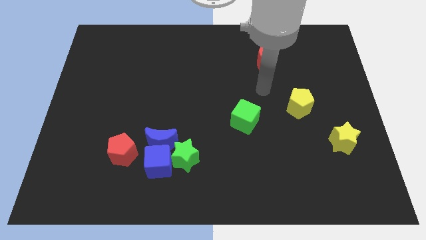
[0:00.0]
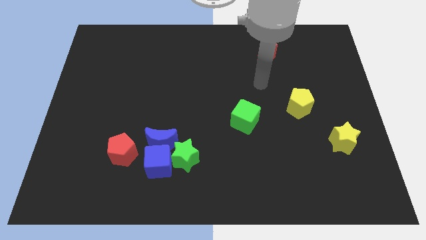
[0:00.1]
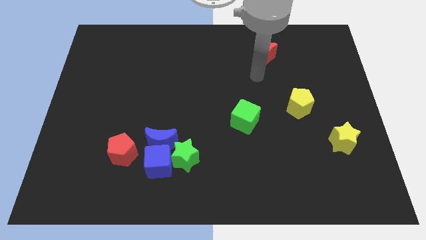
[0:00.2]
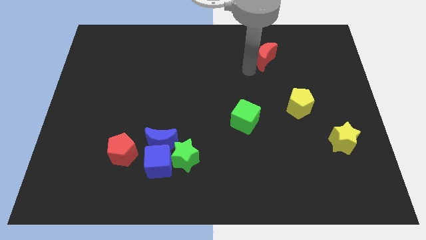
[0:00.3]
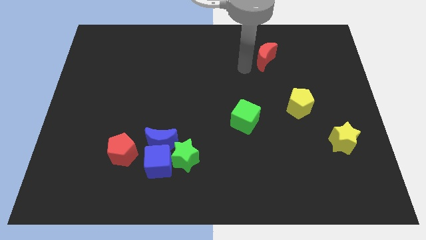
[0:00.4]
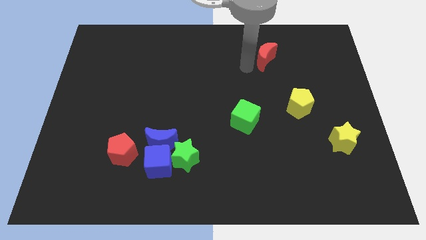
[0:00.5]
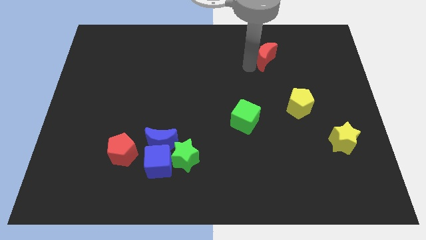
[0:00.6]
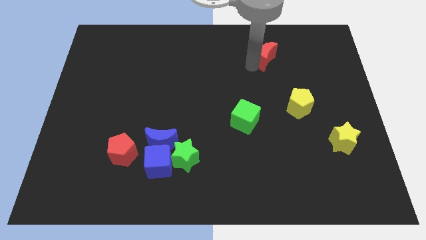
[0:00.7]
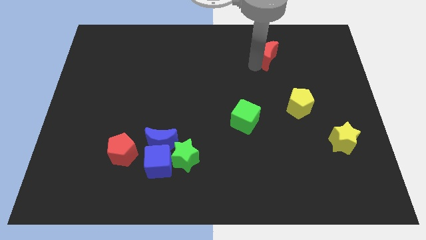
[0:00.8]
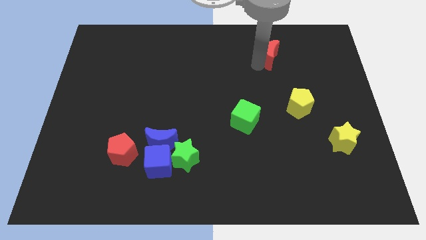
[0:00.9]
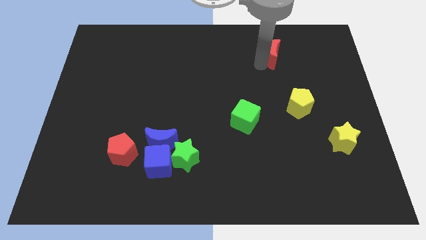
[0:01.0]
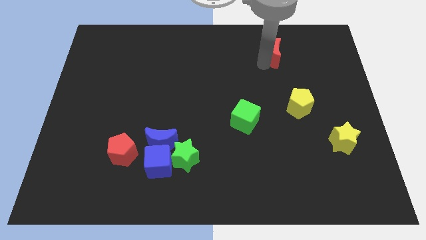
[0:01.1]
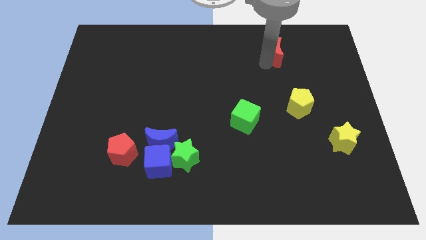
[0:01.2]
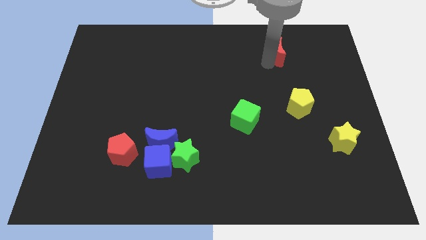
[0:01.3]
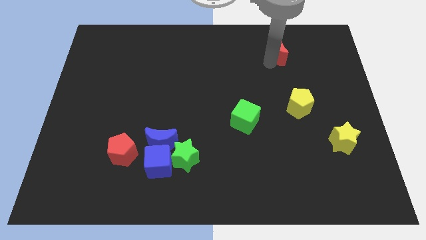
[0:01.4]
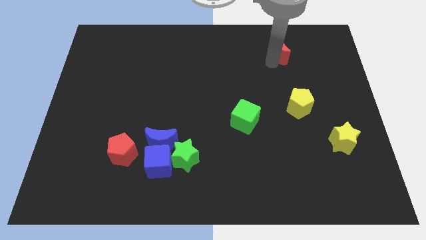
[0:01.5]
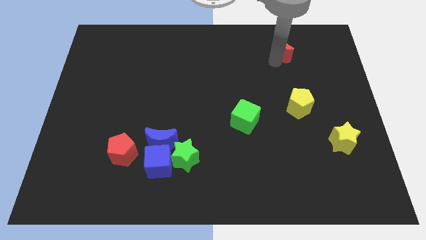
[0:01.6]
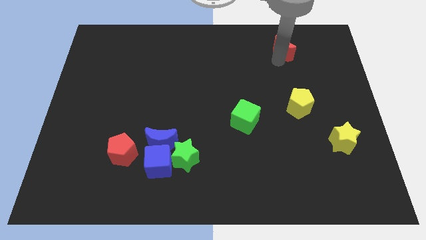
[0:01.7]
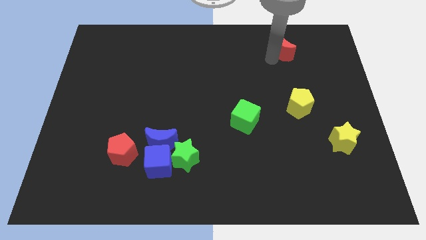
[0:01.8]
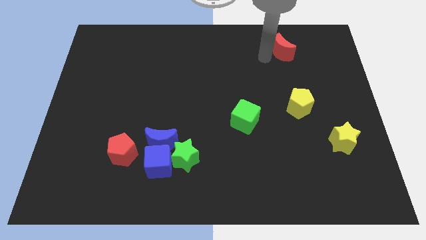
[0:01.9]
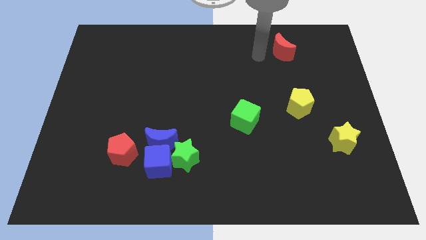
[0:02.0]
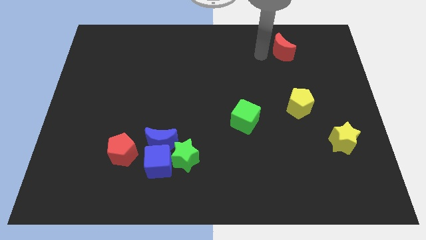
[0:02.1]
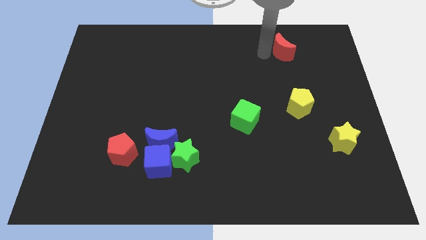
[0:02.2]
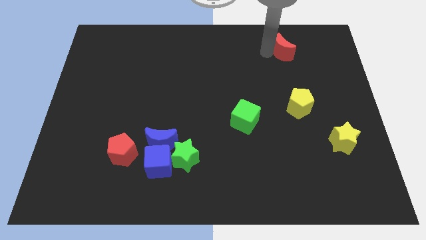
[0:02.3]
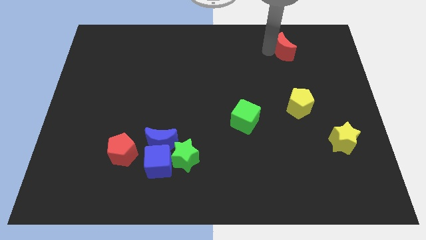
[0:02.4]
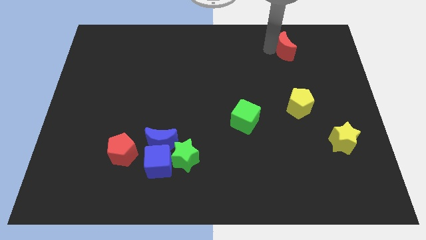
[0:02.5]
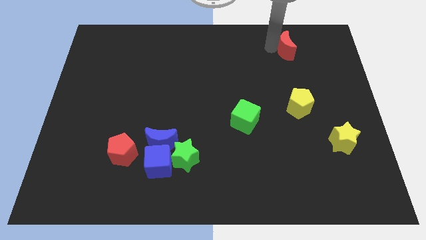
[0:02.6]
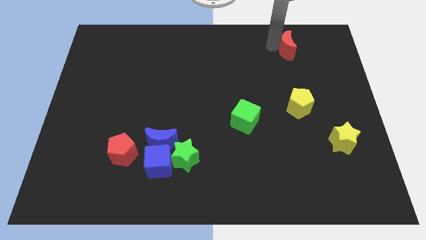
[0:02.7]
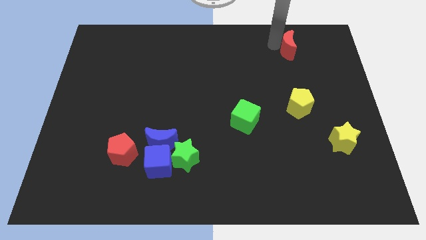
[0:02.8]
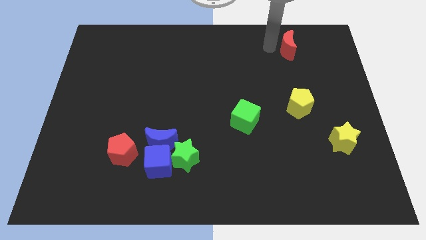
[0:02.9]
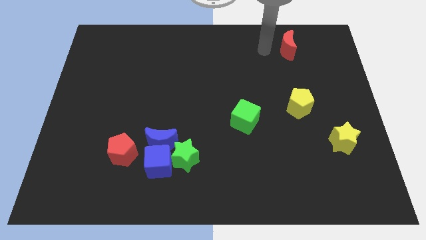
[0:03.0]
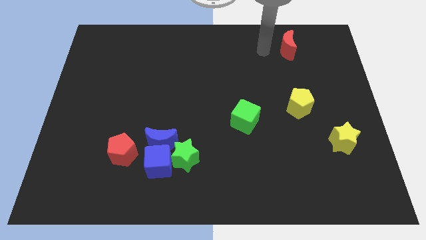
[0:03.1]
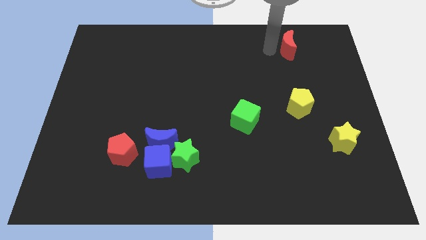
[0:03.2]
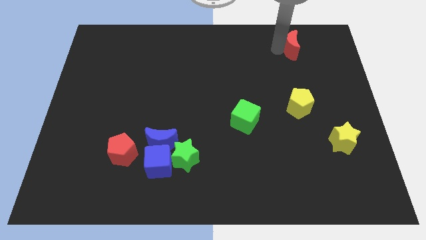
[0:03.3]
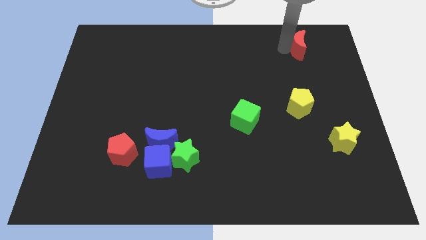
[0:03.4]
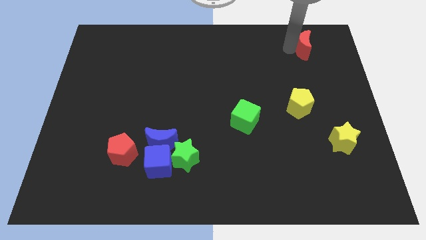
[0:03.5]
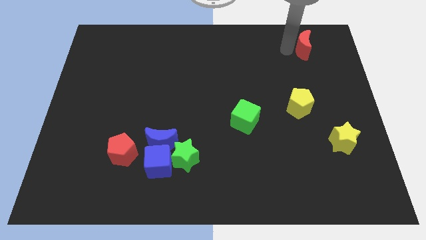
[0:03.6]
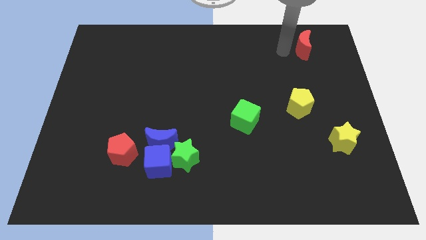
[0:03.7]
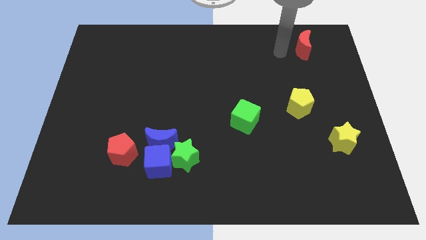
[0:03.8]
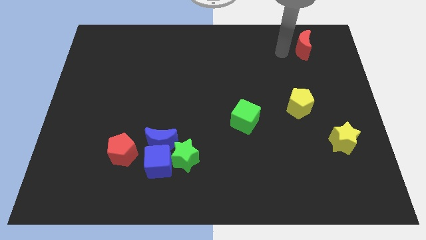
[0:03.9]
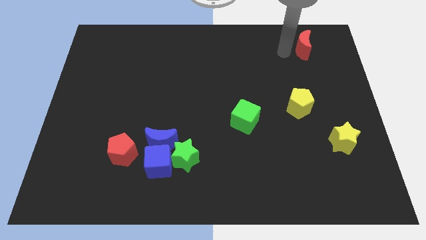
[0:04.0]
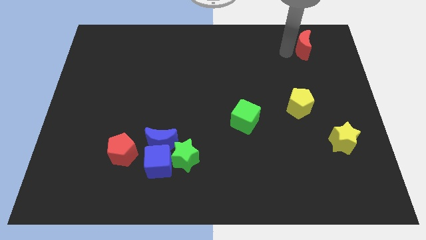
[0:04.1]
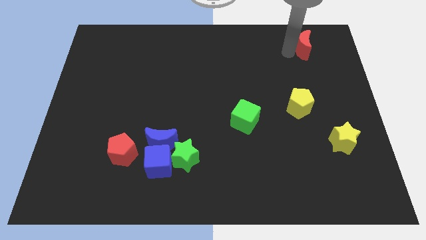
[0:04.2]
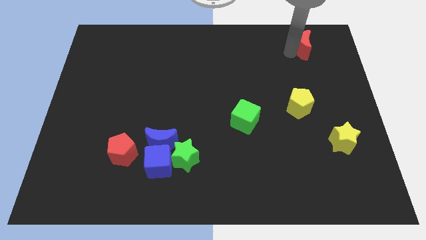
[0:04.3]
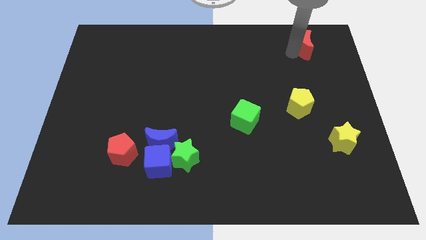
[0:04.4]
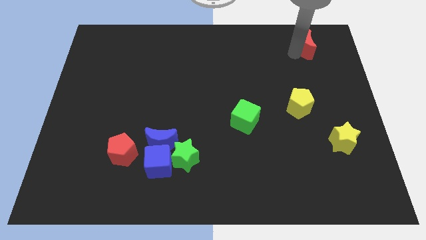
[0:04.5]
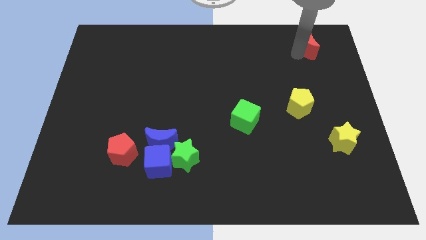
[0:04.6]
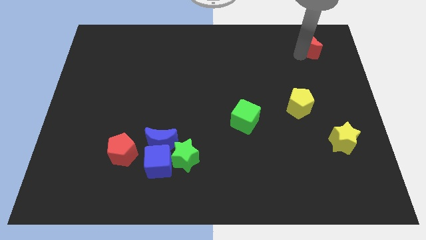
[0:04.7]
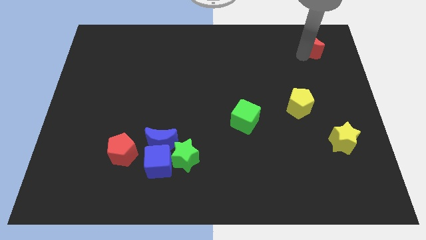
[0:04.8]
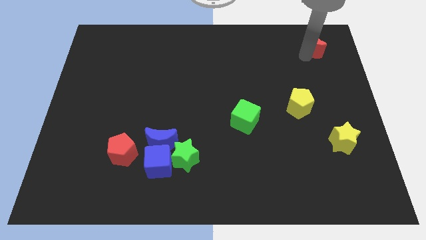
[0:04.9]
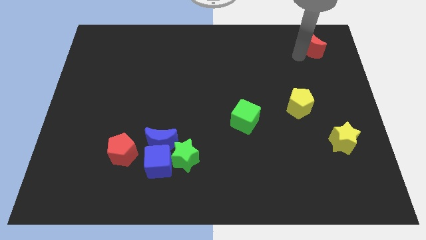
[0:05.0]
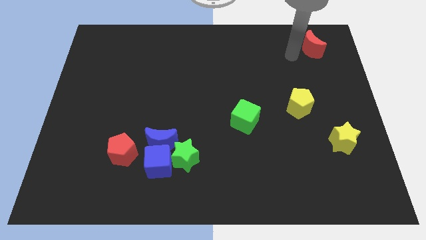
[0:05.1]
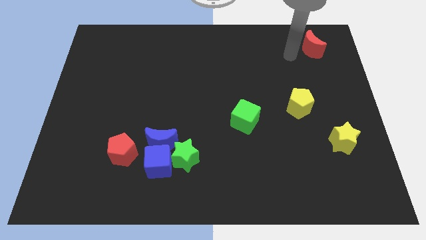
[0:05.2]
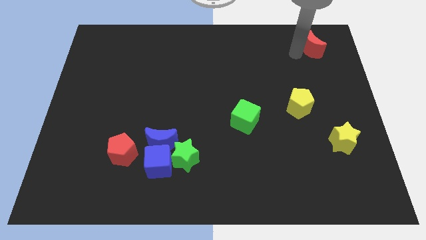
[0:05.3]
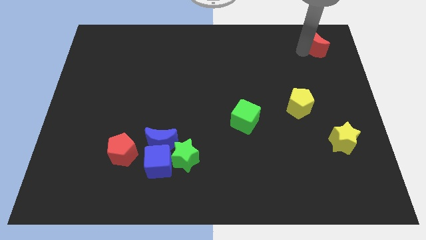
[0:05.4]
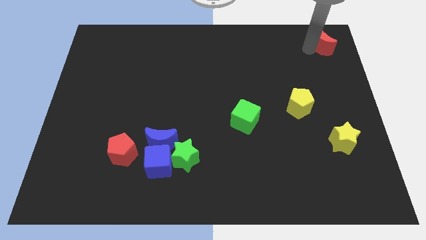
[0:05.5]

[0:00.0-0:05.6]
push the red moon to the top right

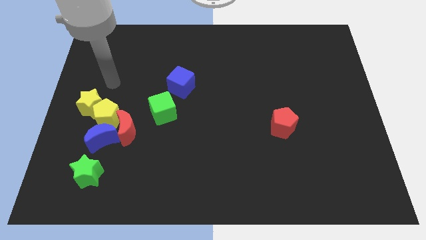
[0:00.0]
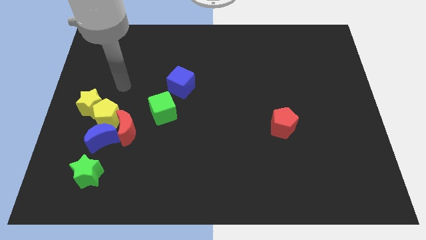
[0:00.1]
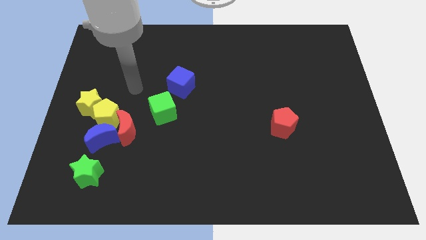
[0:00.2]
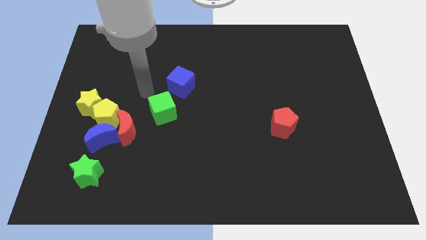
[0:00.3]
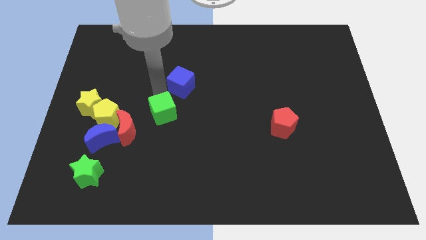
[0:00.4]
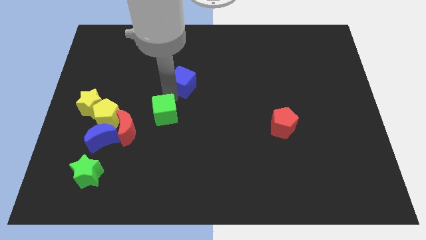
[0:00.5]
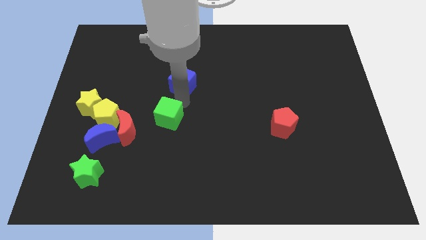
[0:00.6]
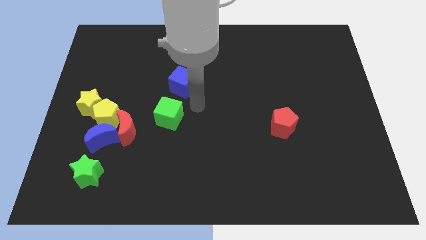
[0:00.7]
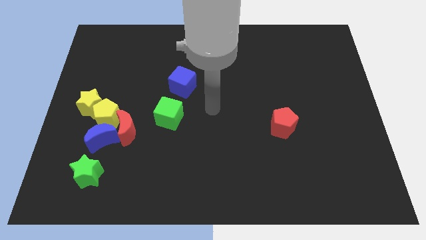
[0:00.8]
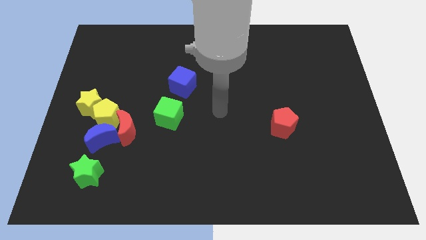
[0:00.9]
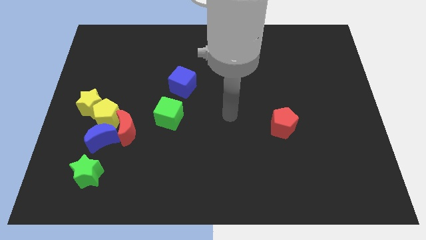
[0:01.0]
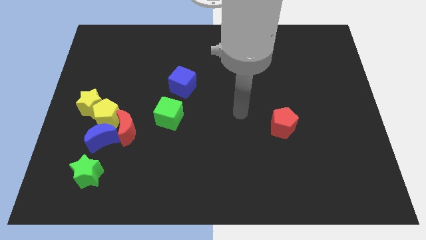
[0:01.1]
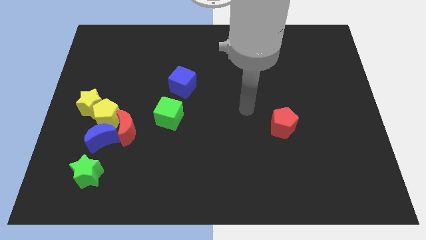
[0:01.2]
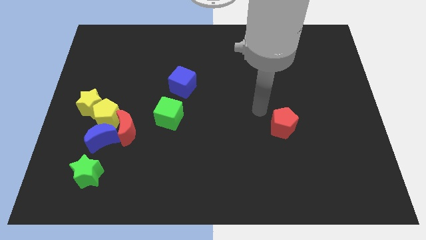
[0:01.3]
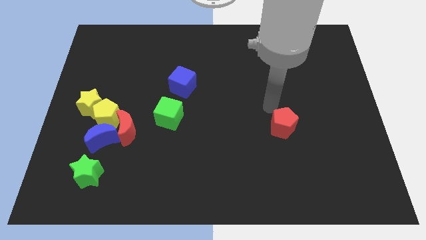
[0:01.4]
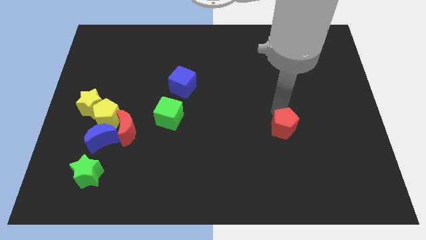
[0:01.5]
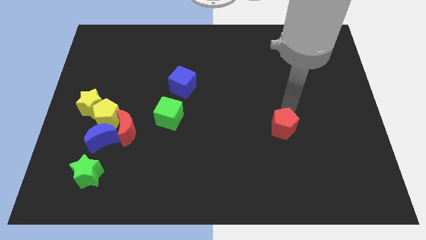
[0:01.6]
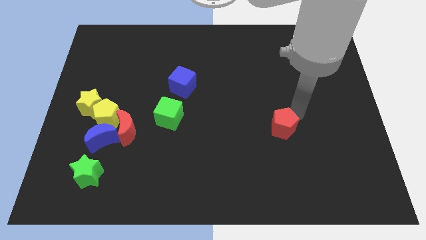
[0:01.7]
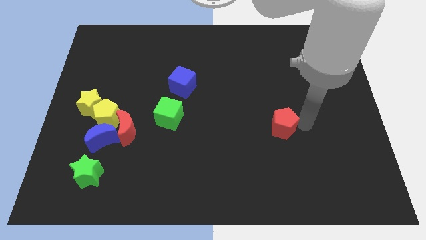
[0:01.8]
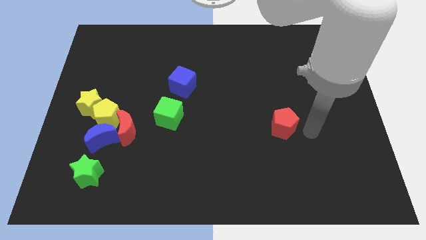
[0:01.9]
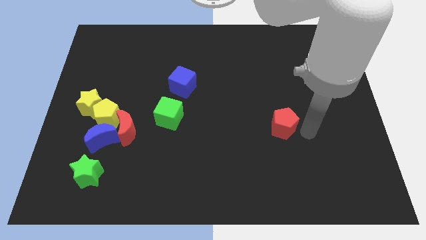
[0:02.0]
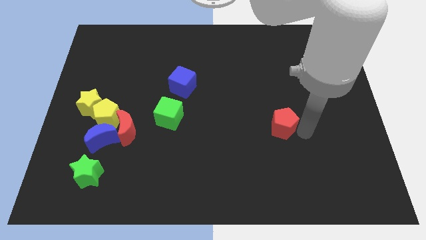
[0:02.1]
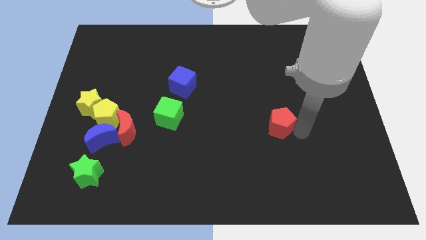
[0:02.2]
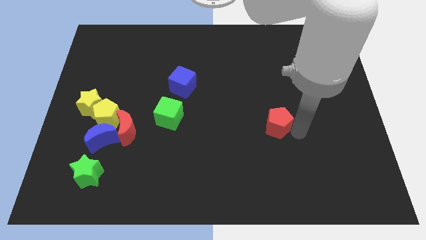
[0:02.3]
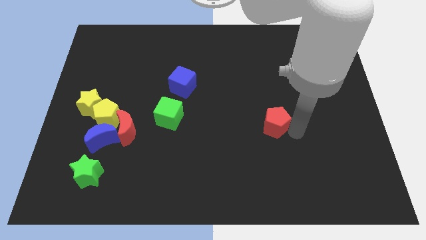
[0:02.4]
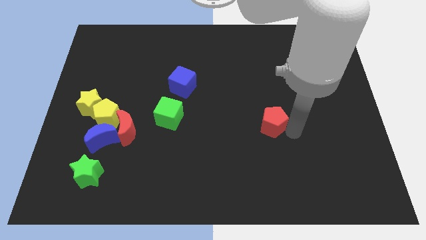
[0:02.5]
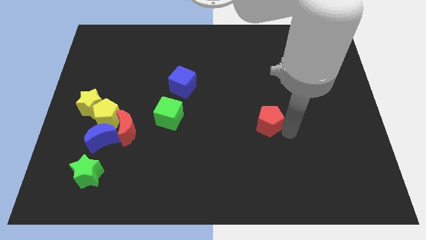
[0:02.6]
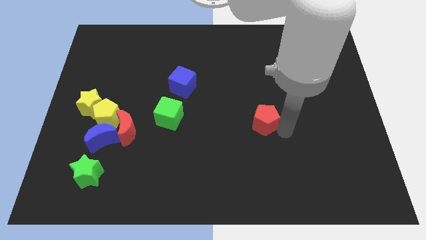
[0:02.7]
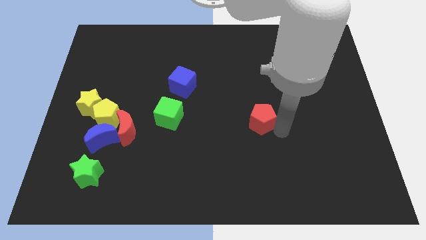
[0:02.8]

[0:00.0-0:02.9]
slide the red pentagon to the middle of the board
